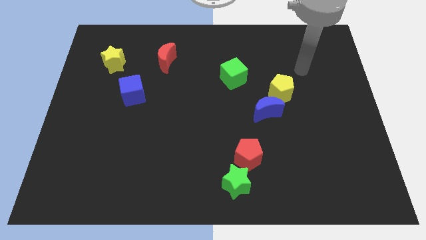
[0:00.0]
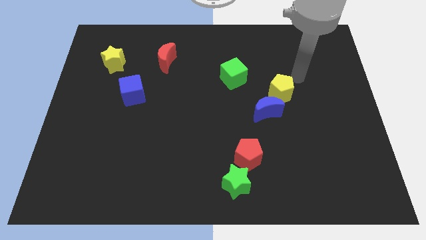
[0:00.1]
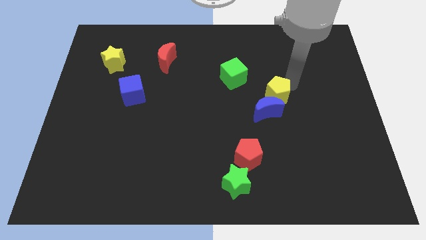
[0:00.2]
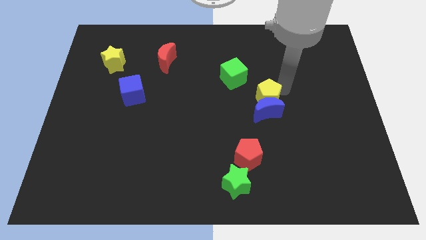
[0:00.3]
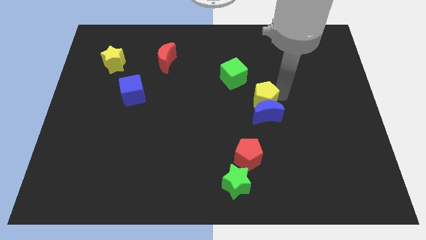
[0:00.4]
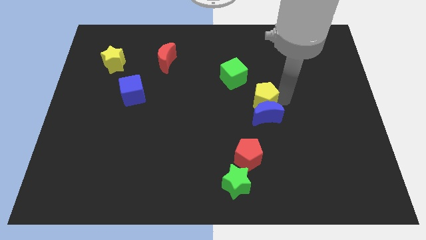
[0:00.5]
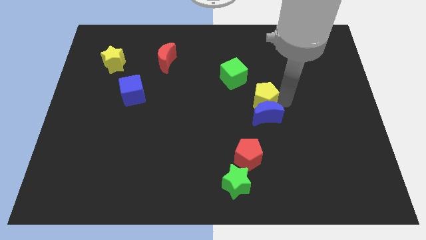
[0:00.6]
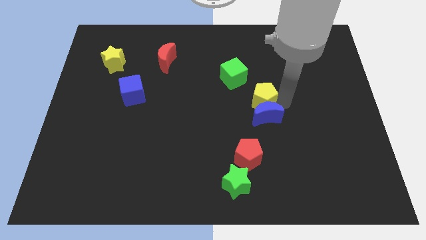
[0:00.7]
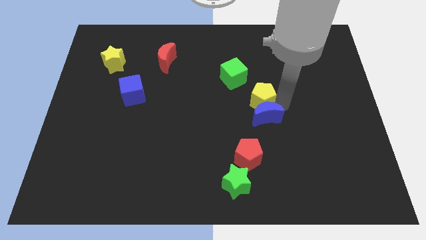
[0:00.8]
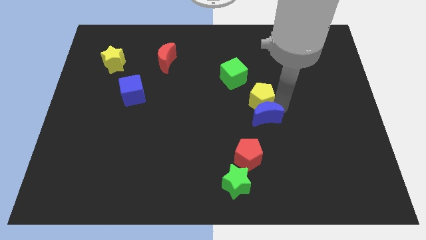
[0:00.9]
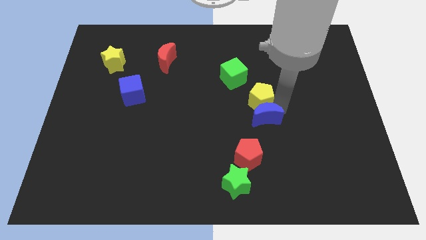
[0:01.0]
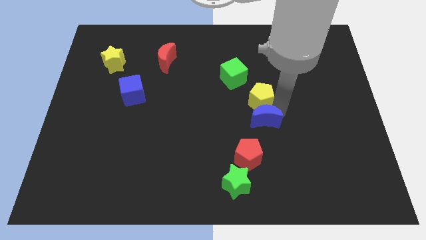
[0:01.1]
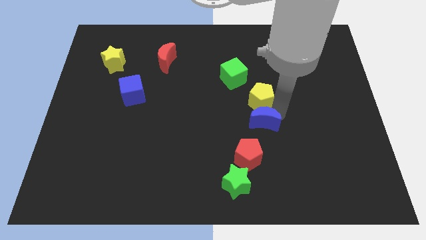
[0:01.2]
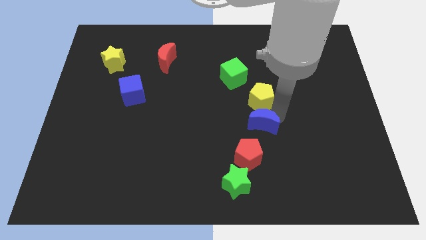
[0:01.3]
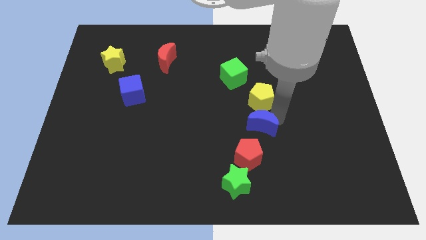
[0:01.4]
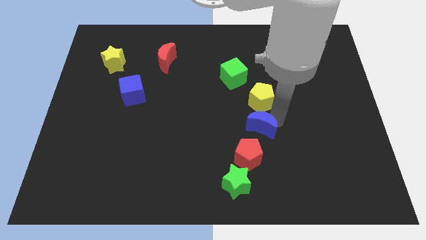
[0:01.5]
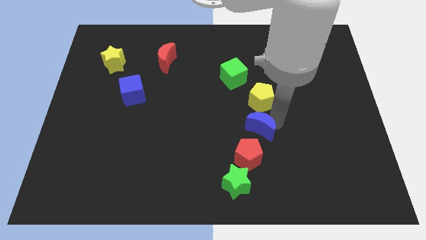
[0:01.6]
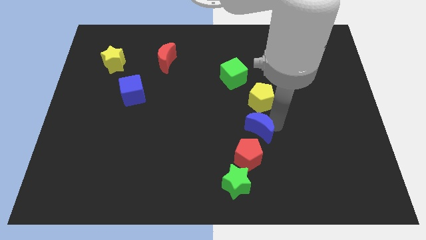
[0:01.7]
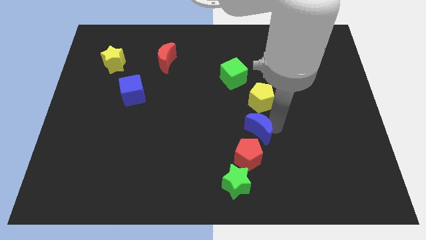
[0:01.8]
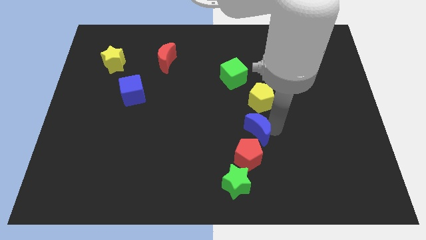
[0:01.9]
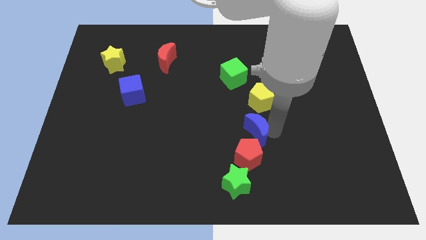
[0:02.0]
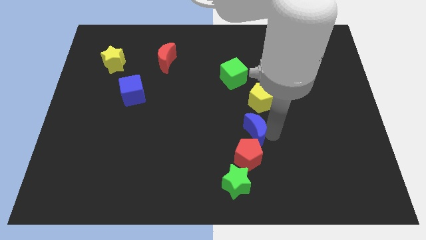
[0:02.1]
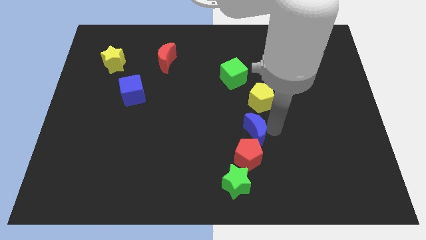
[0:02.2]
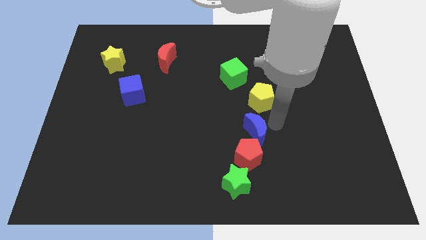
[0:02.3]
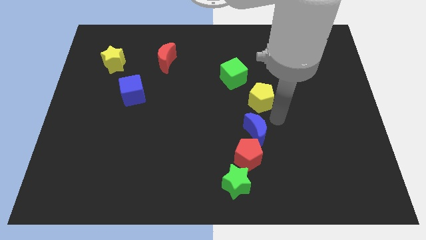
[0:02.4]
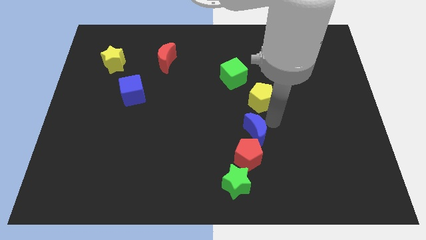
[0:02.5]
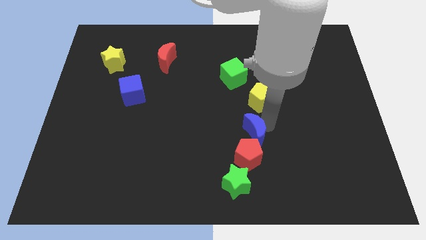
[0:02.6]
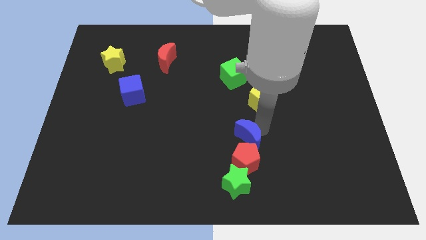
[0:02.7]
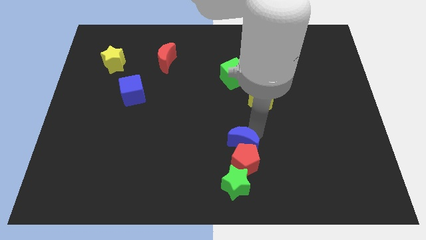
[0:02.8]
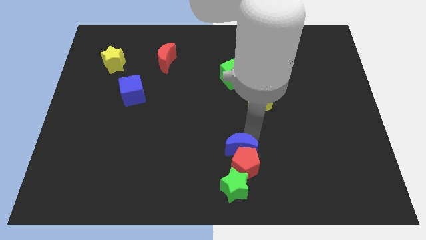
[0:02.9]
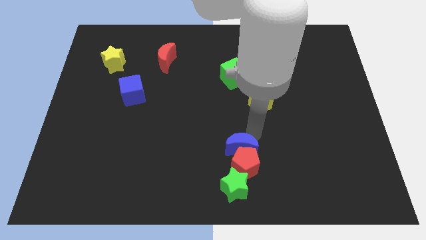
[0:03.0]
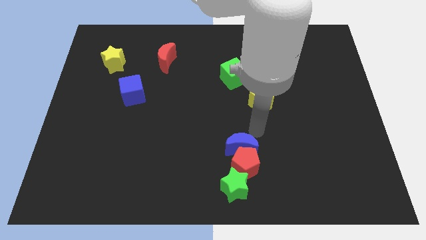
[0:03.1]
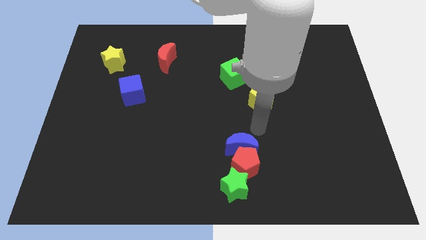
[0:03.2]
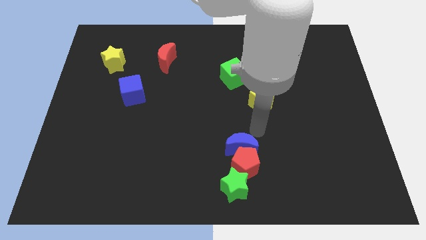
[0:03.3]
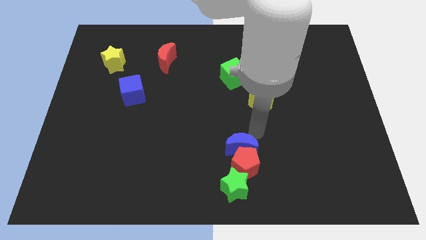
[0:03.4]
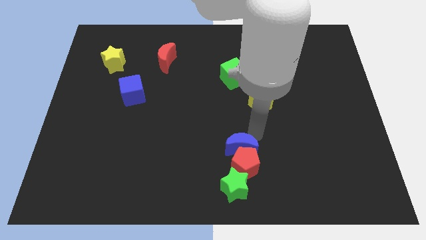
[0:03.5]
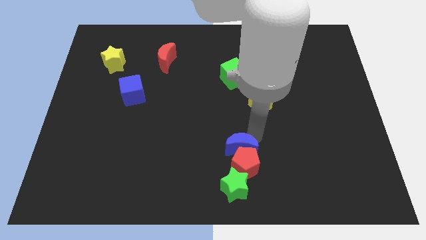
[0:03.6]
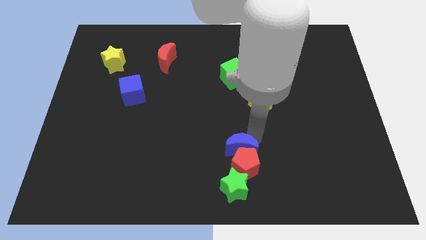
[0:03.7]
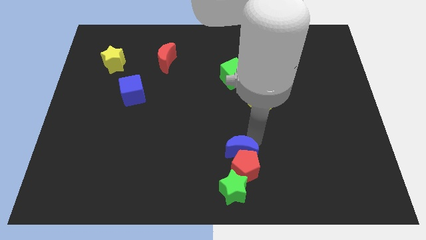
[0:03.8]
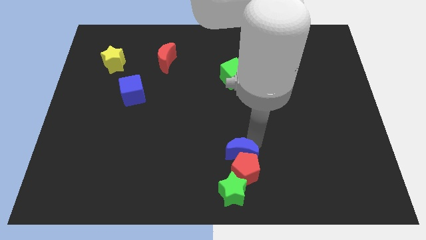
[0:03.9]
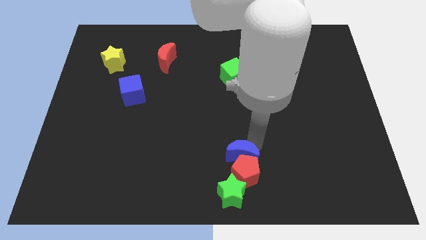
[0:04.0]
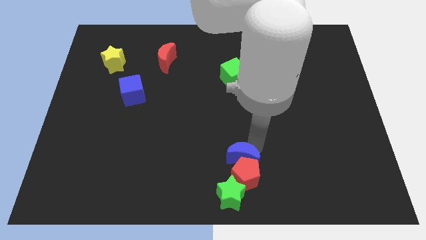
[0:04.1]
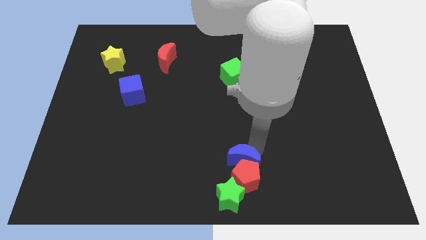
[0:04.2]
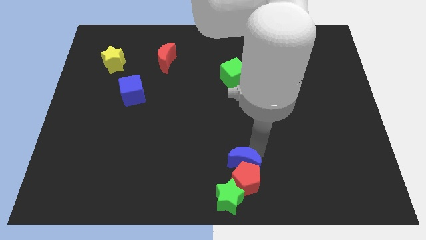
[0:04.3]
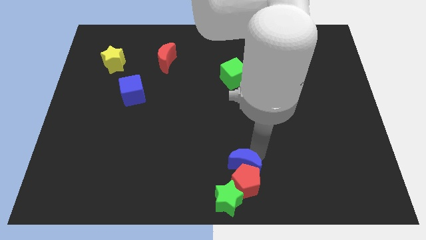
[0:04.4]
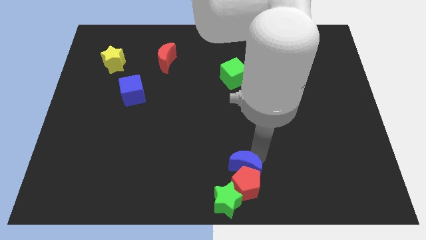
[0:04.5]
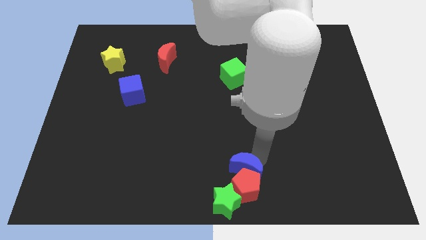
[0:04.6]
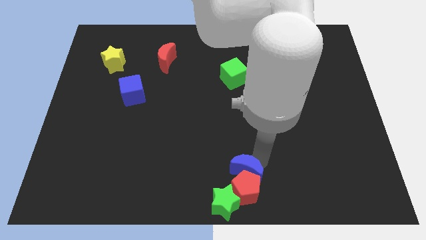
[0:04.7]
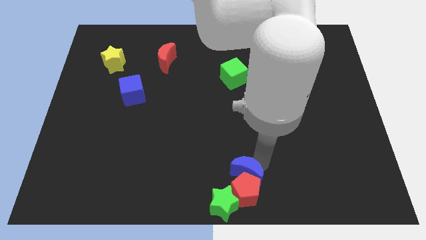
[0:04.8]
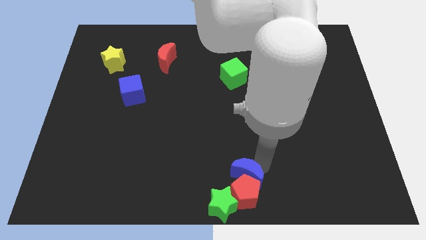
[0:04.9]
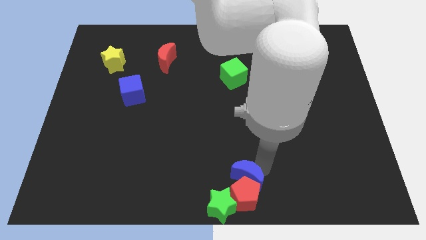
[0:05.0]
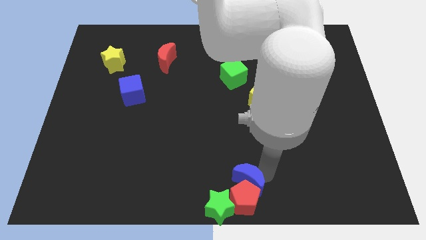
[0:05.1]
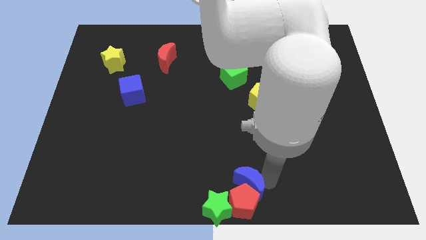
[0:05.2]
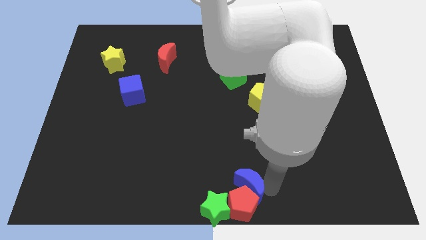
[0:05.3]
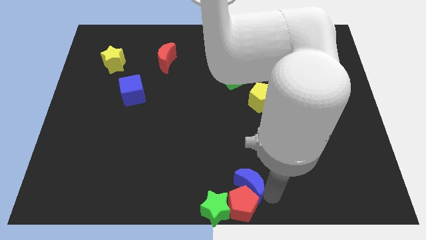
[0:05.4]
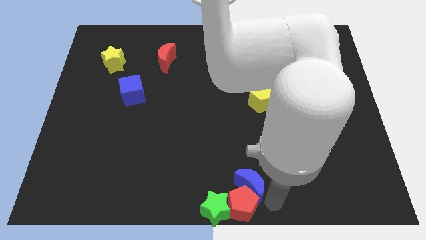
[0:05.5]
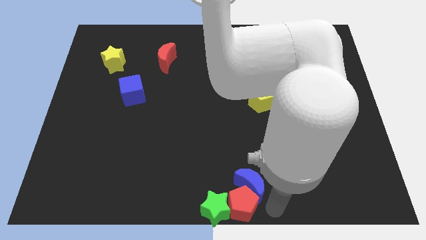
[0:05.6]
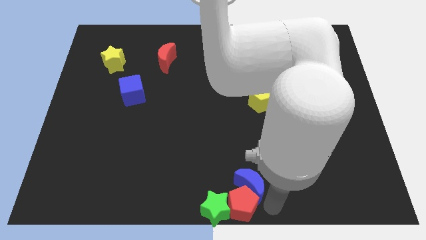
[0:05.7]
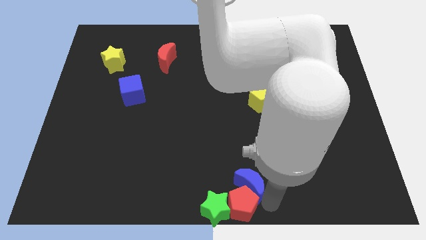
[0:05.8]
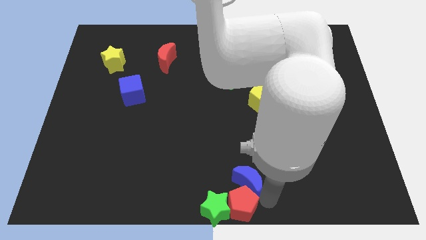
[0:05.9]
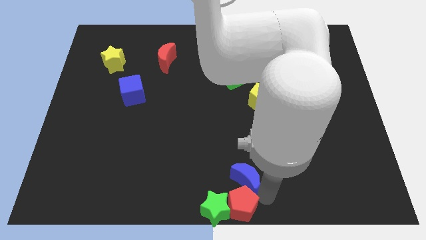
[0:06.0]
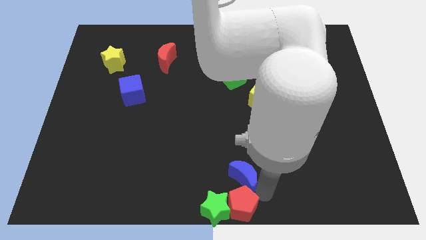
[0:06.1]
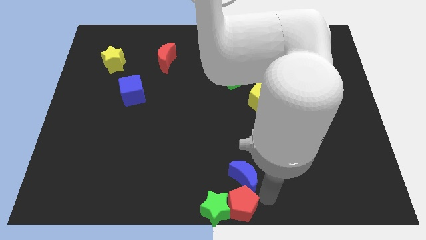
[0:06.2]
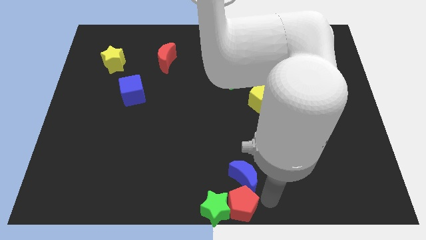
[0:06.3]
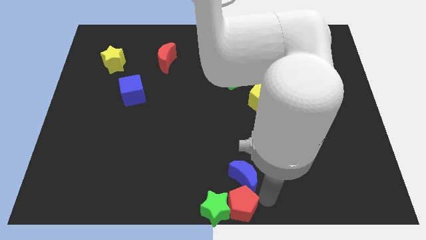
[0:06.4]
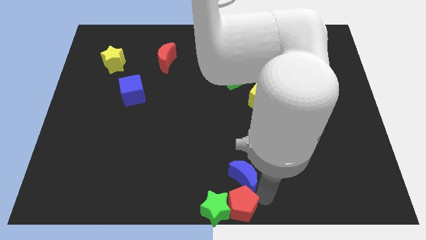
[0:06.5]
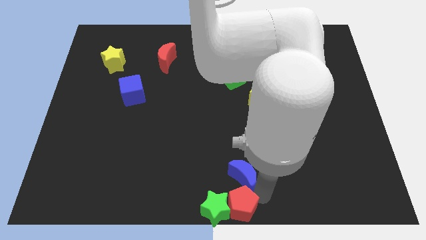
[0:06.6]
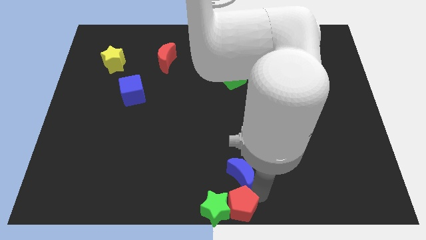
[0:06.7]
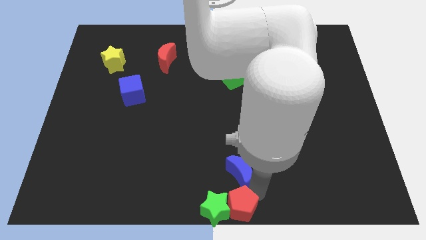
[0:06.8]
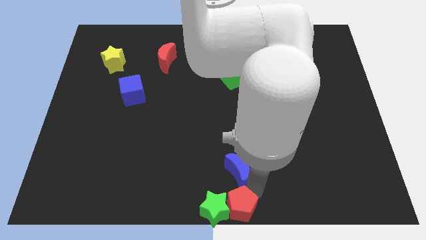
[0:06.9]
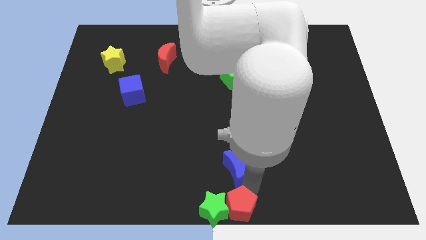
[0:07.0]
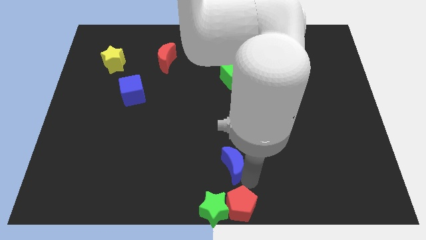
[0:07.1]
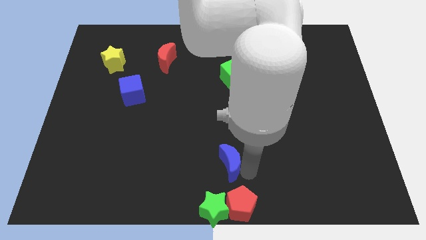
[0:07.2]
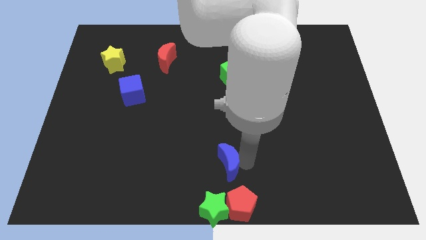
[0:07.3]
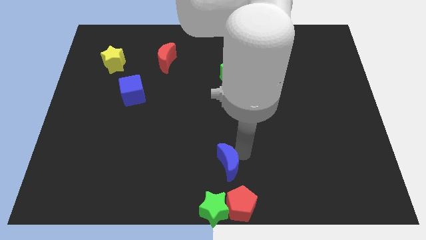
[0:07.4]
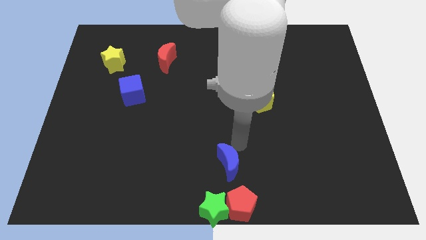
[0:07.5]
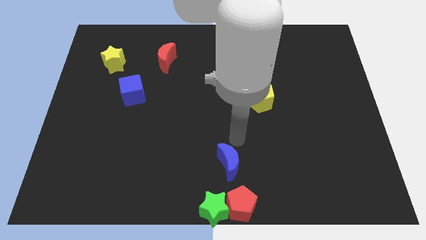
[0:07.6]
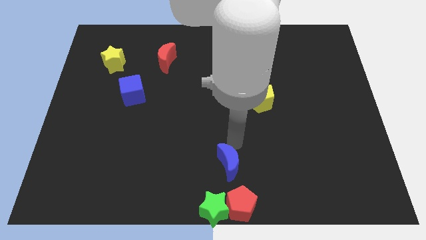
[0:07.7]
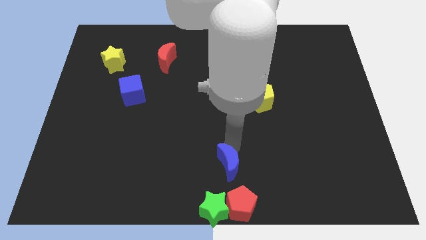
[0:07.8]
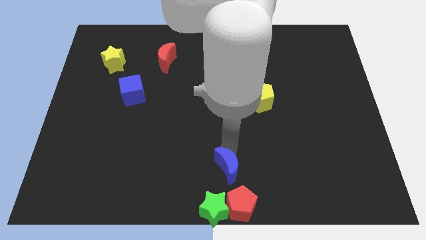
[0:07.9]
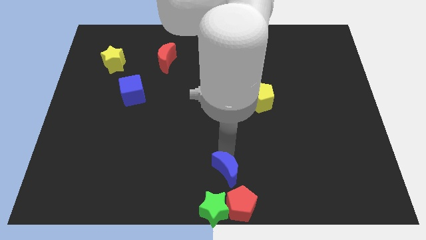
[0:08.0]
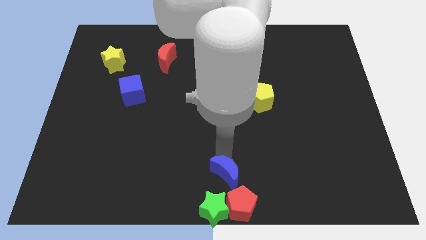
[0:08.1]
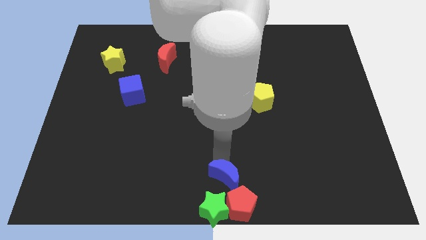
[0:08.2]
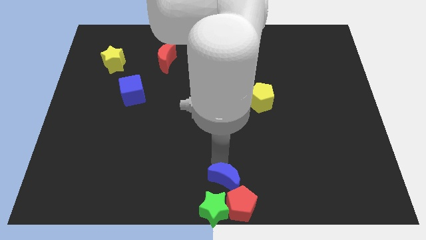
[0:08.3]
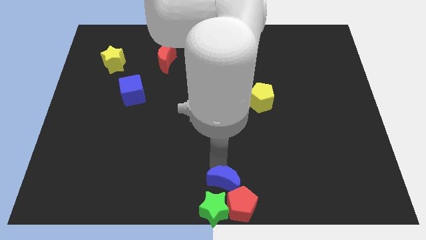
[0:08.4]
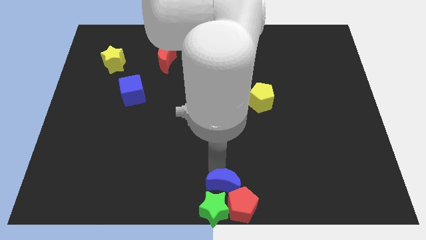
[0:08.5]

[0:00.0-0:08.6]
push the blue moon close to the green star
